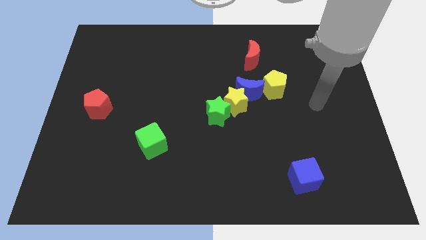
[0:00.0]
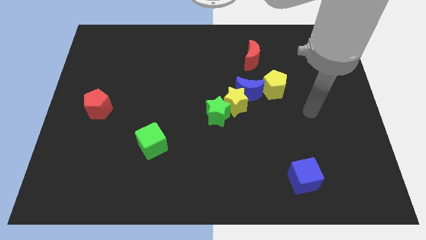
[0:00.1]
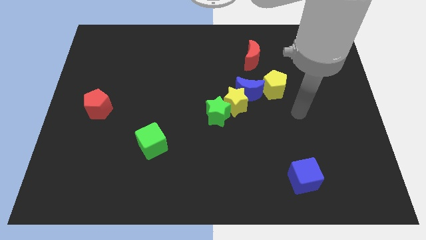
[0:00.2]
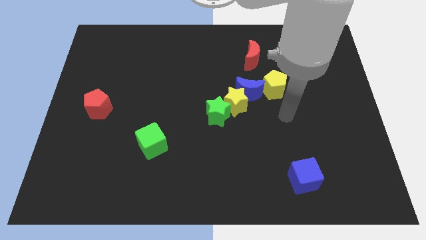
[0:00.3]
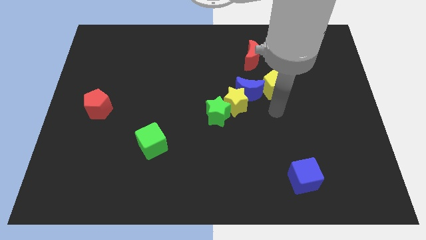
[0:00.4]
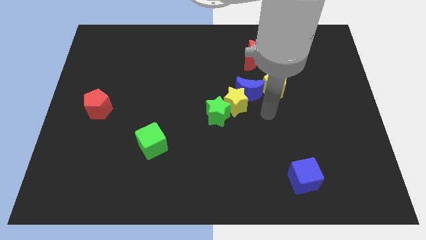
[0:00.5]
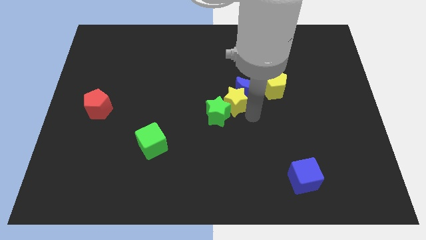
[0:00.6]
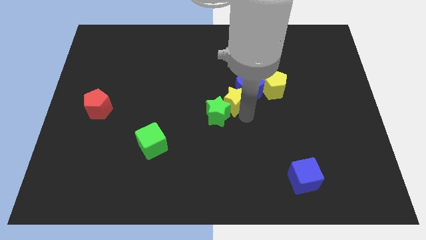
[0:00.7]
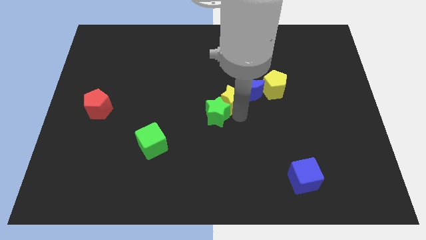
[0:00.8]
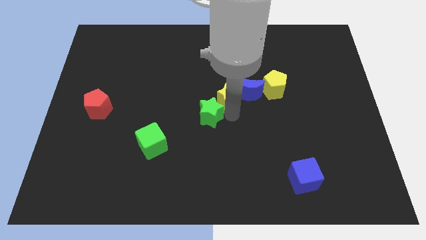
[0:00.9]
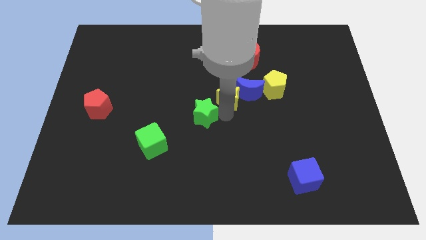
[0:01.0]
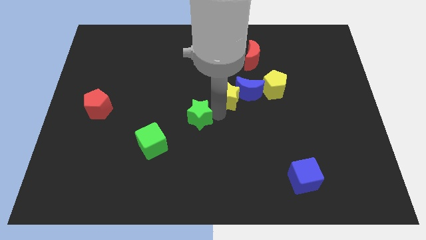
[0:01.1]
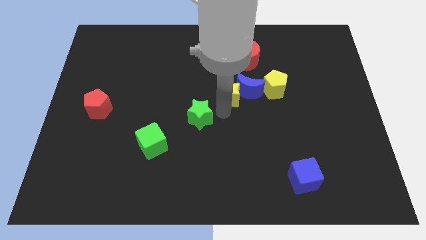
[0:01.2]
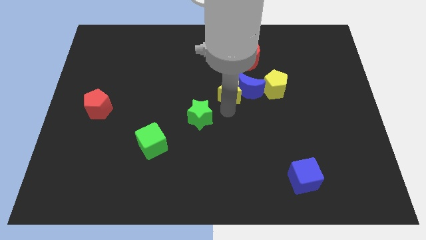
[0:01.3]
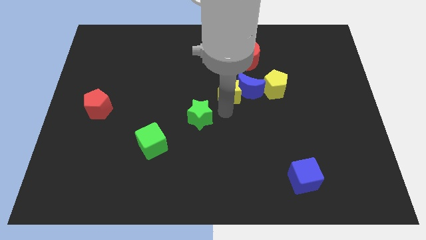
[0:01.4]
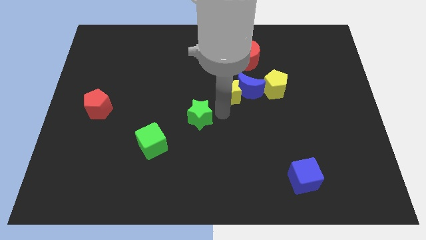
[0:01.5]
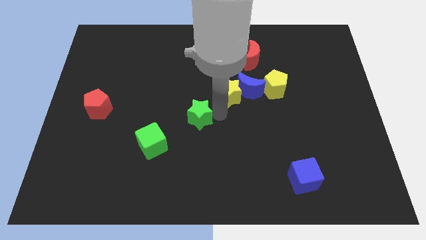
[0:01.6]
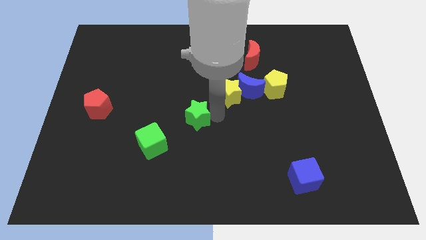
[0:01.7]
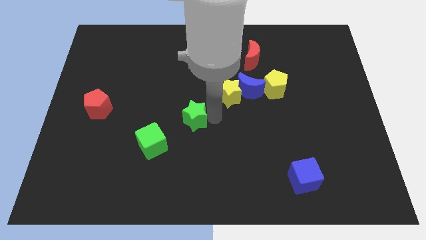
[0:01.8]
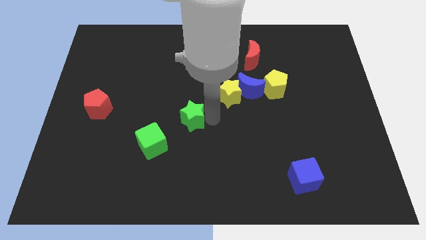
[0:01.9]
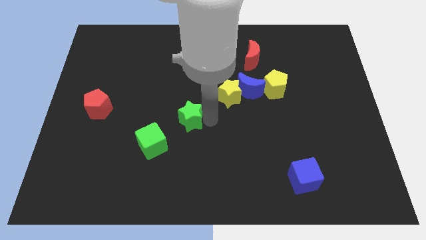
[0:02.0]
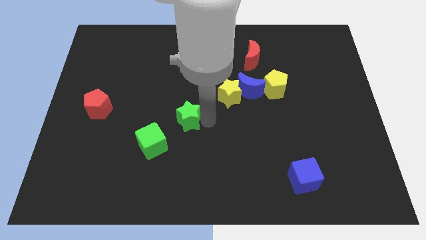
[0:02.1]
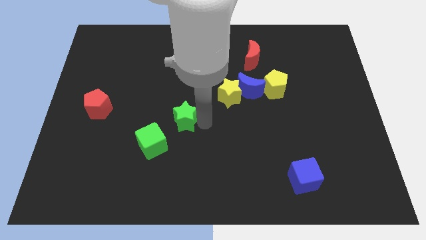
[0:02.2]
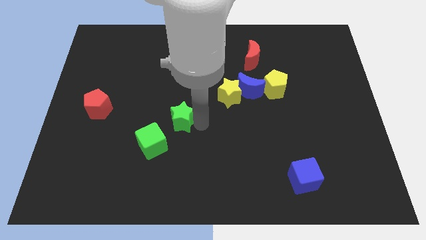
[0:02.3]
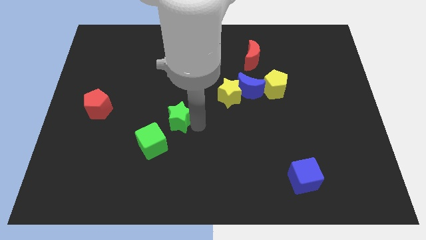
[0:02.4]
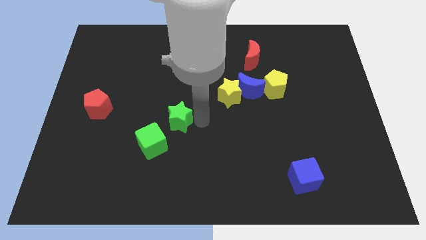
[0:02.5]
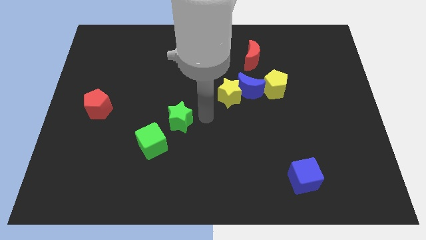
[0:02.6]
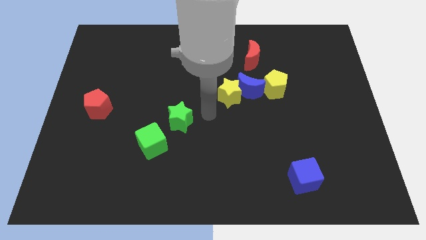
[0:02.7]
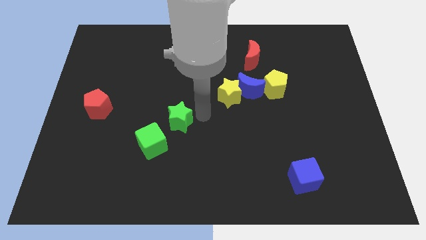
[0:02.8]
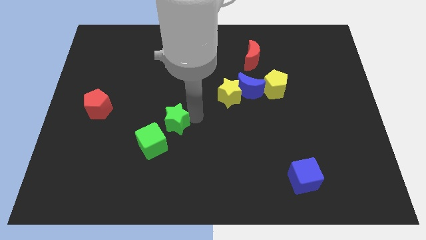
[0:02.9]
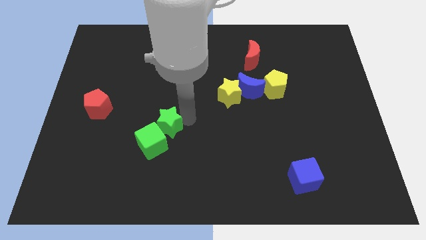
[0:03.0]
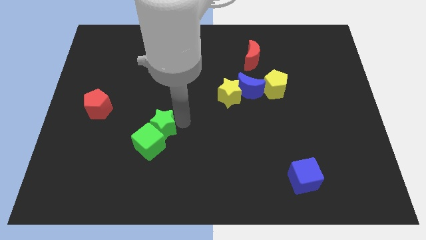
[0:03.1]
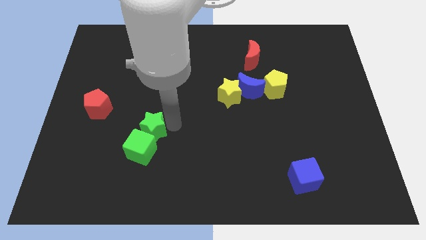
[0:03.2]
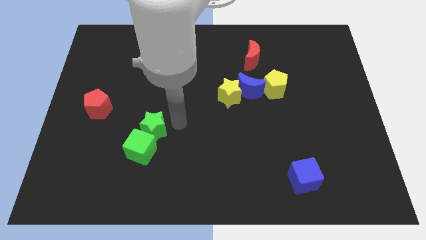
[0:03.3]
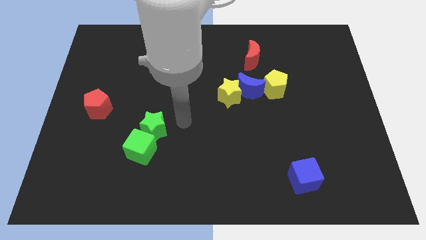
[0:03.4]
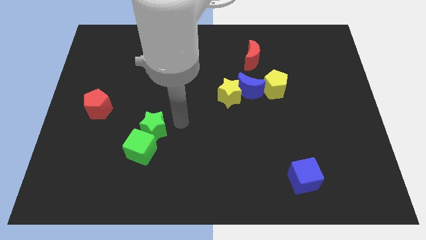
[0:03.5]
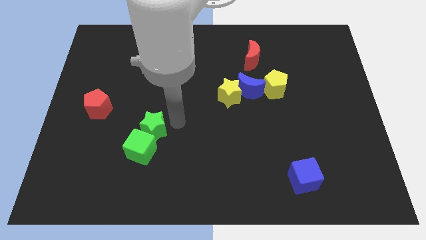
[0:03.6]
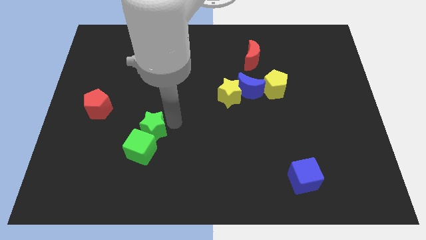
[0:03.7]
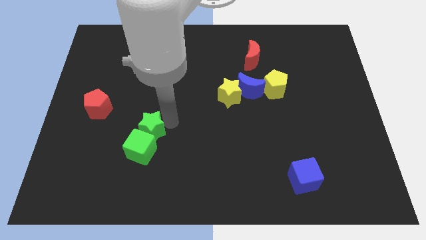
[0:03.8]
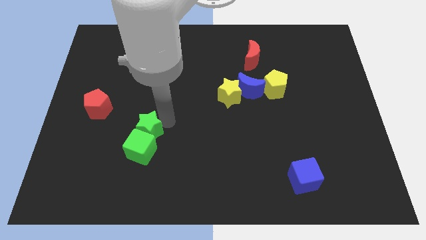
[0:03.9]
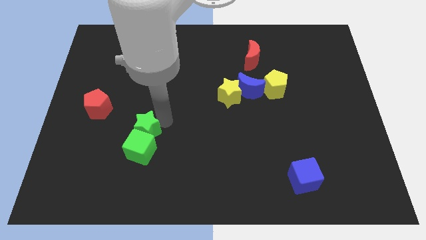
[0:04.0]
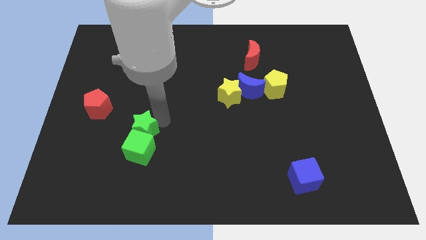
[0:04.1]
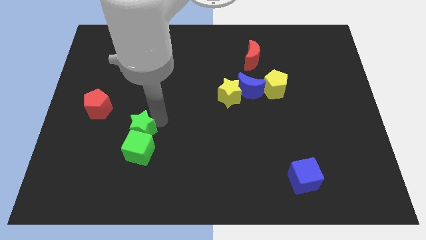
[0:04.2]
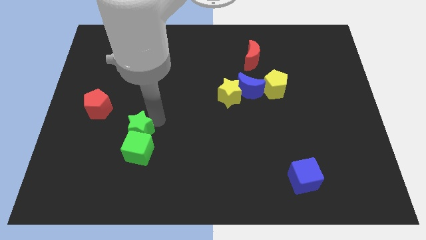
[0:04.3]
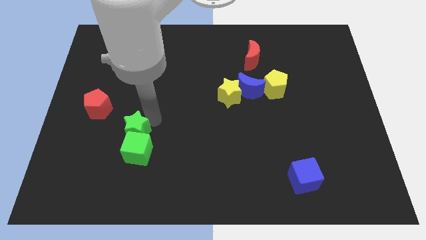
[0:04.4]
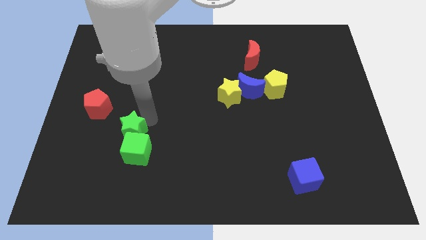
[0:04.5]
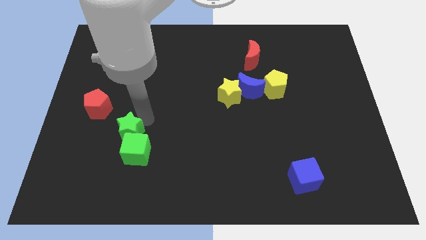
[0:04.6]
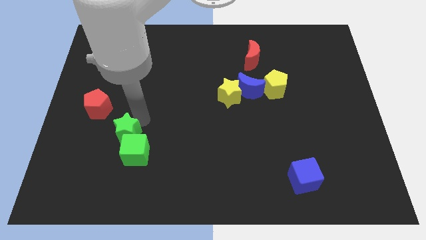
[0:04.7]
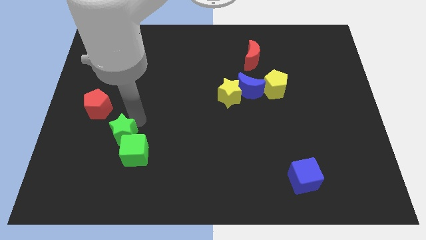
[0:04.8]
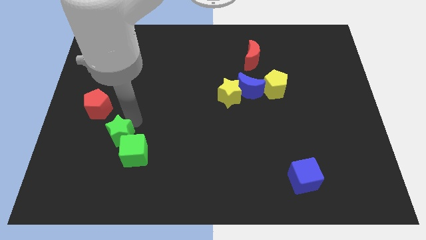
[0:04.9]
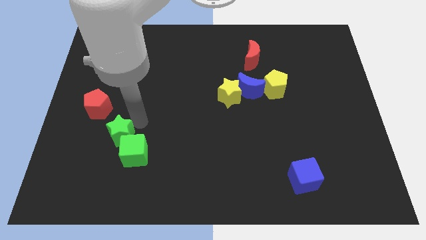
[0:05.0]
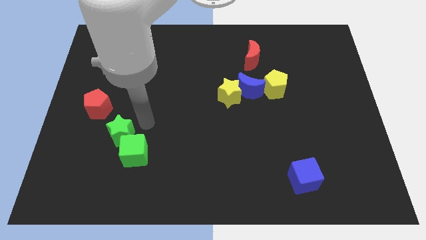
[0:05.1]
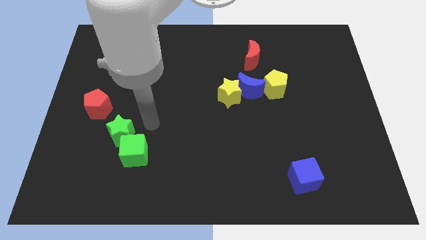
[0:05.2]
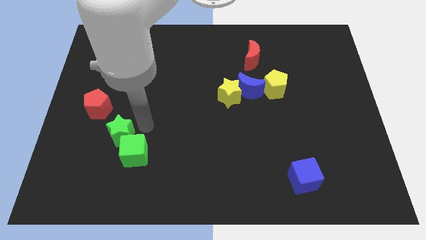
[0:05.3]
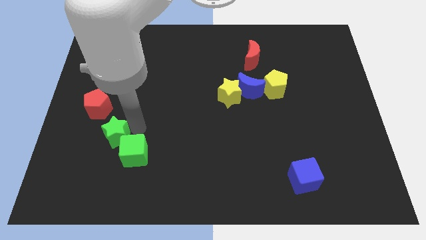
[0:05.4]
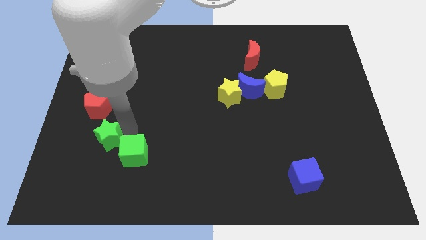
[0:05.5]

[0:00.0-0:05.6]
push the green star to the bottom of the red pentagon

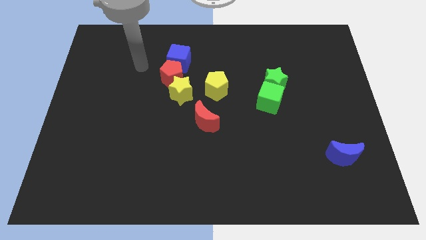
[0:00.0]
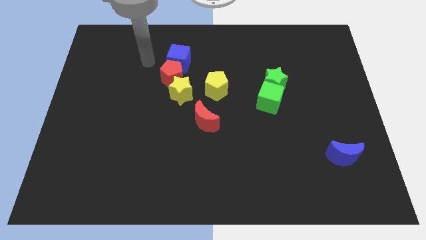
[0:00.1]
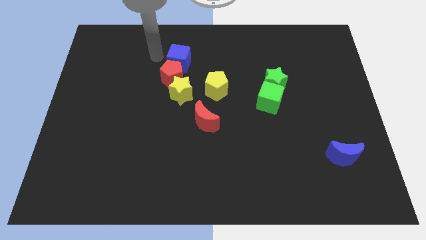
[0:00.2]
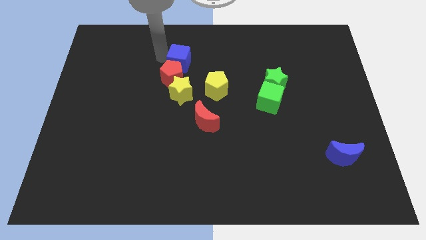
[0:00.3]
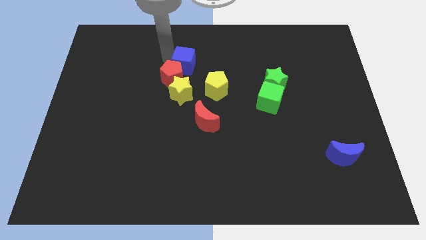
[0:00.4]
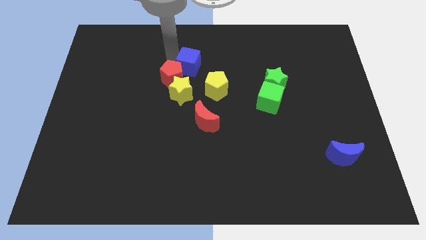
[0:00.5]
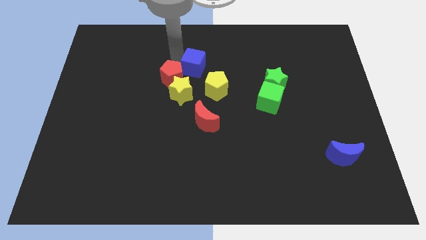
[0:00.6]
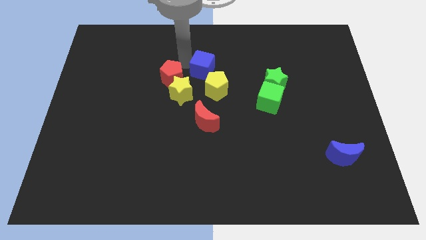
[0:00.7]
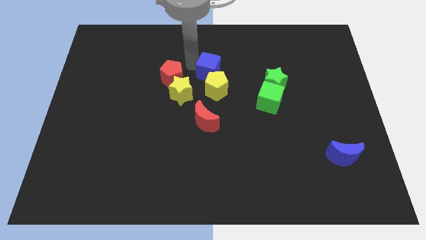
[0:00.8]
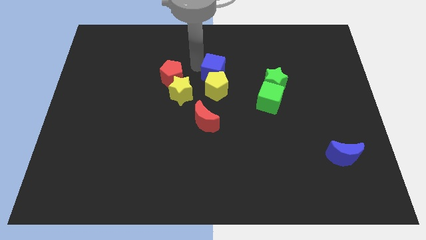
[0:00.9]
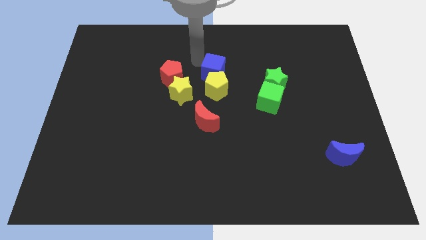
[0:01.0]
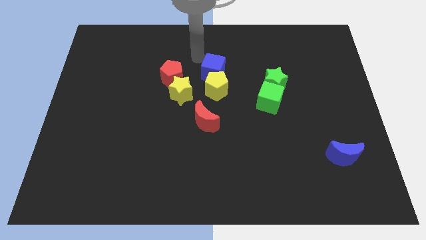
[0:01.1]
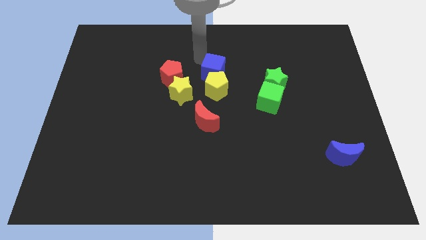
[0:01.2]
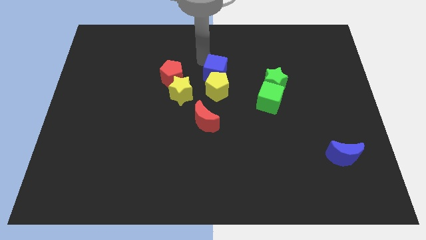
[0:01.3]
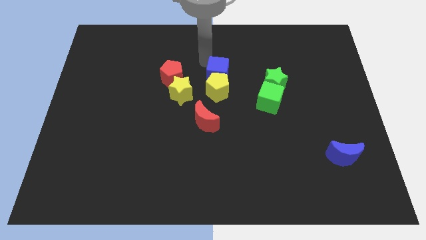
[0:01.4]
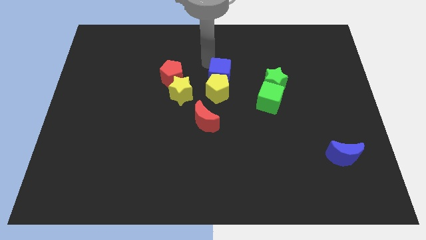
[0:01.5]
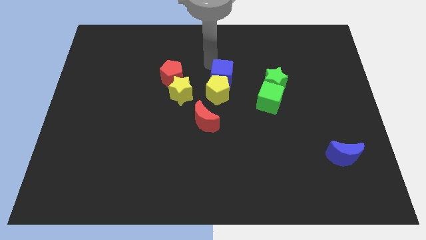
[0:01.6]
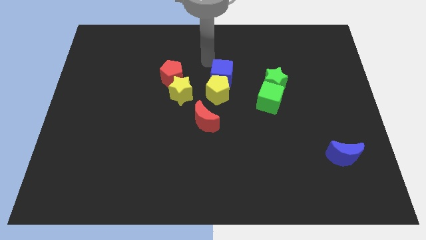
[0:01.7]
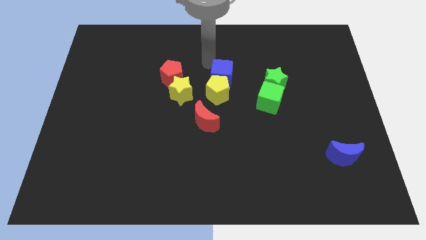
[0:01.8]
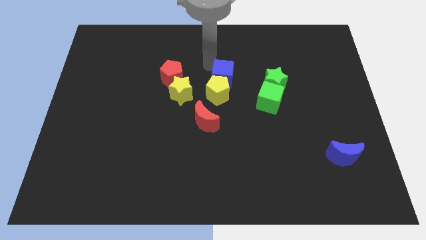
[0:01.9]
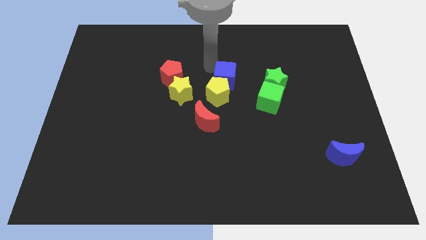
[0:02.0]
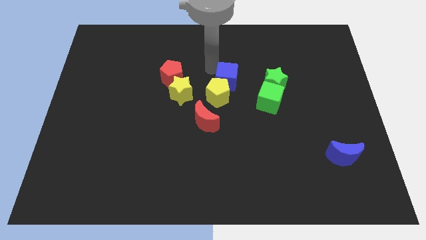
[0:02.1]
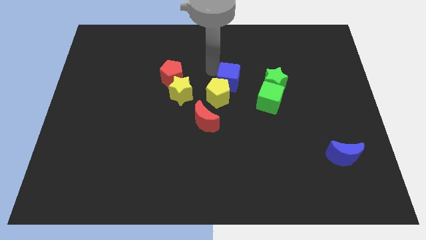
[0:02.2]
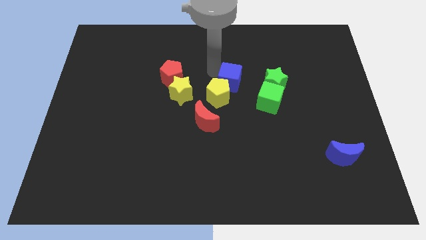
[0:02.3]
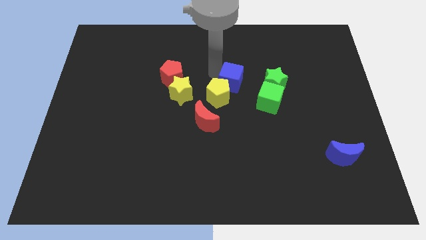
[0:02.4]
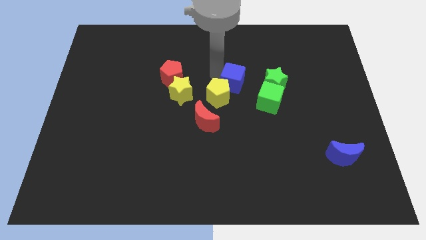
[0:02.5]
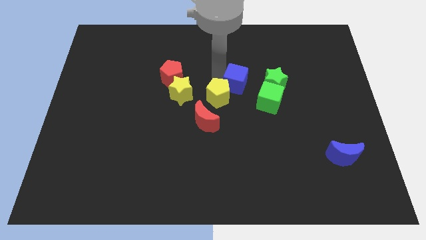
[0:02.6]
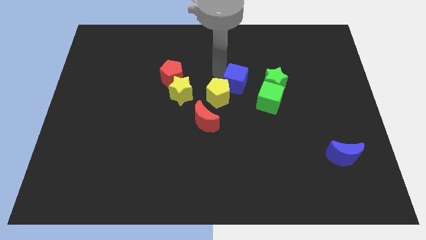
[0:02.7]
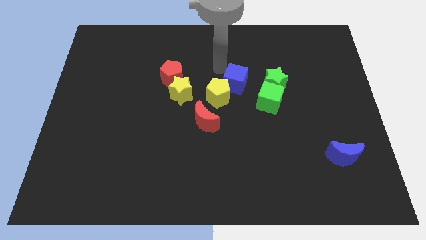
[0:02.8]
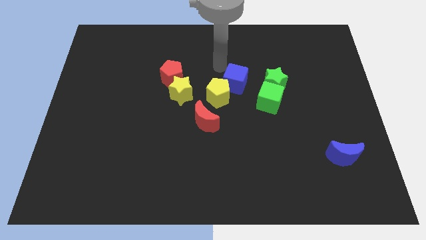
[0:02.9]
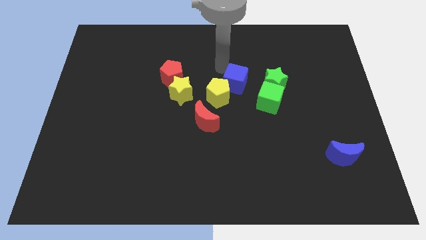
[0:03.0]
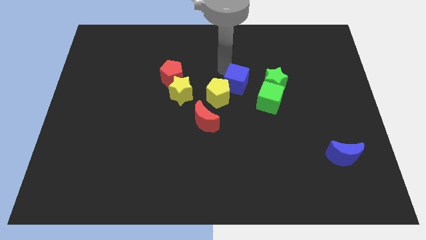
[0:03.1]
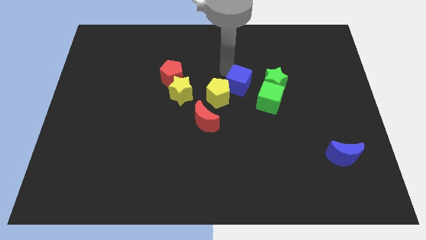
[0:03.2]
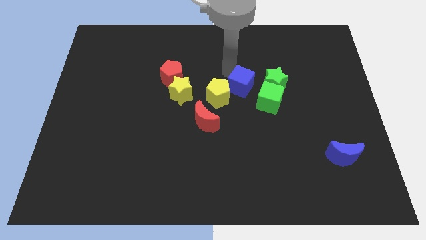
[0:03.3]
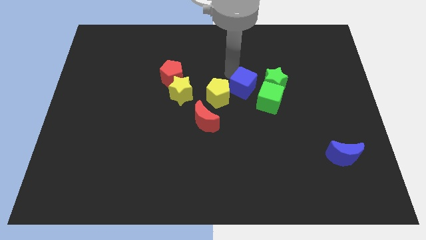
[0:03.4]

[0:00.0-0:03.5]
move the blue cube diagonally down and to the left of the green star
